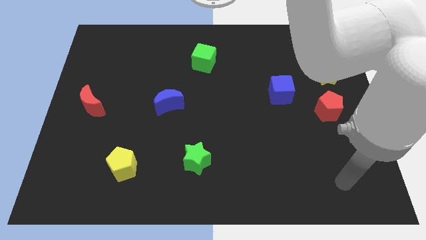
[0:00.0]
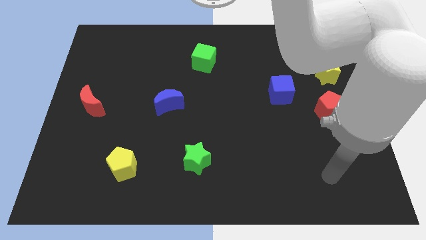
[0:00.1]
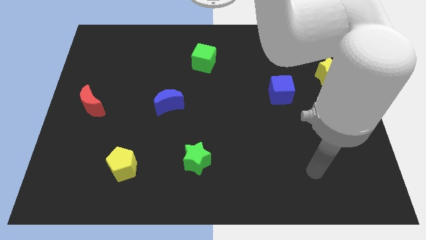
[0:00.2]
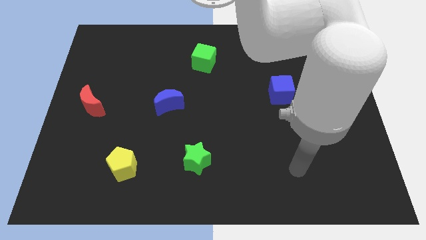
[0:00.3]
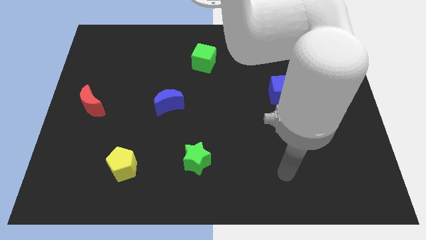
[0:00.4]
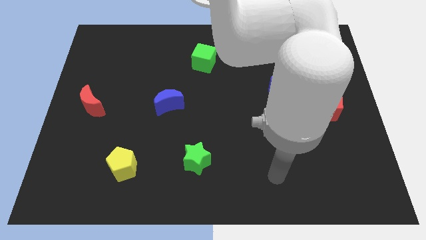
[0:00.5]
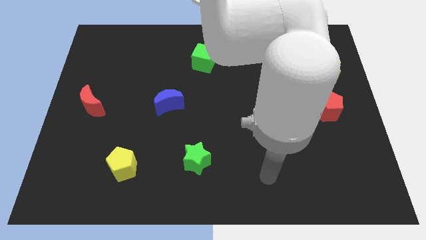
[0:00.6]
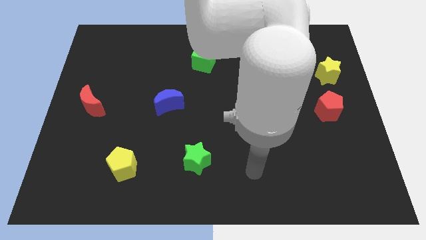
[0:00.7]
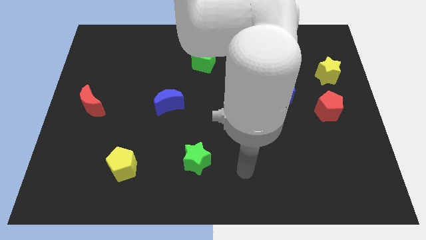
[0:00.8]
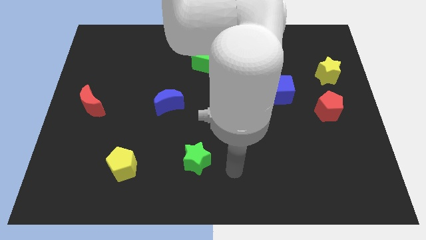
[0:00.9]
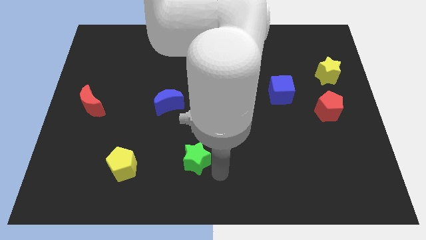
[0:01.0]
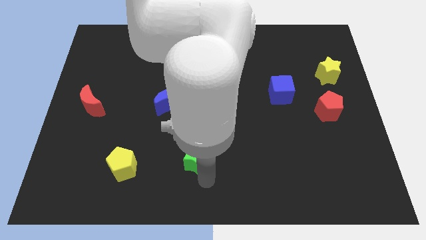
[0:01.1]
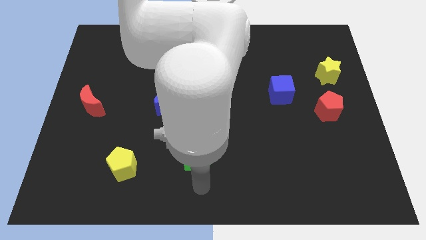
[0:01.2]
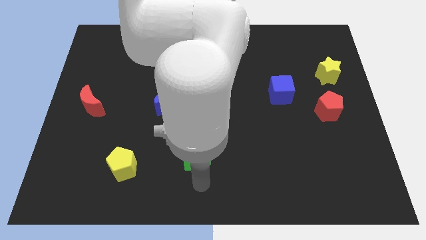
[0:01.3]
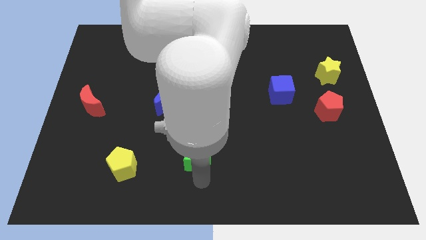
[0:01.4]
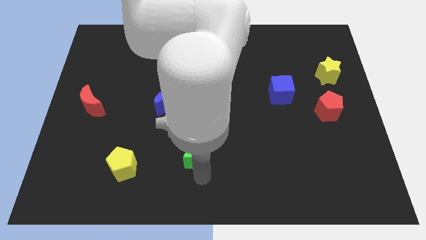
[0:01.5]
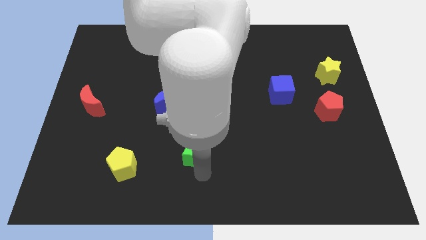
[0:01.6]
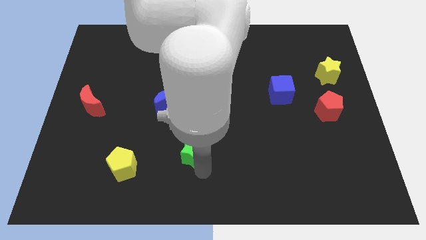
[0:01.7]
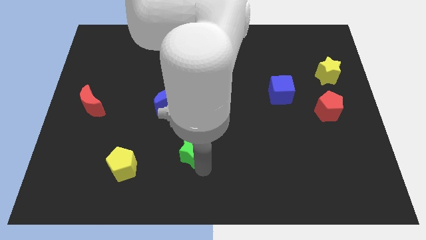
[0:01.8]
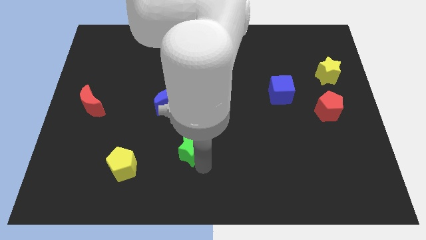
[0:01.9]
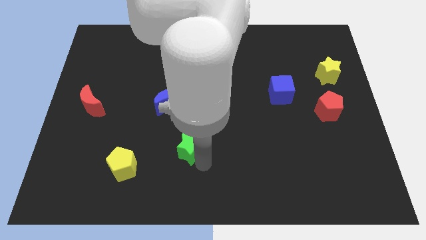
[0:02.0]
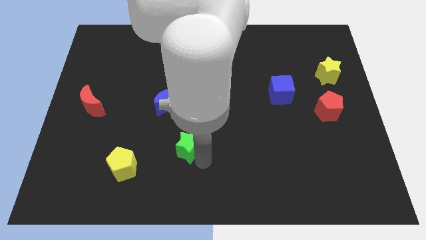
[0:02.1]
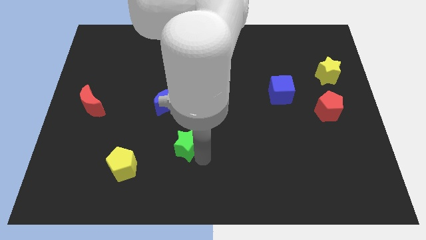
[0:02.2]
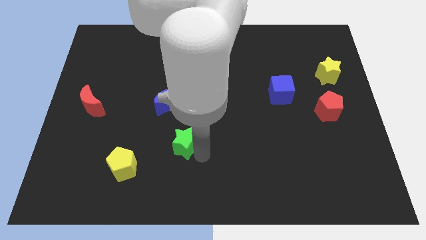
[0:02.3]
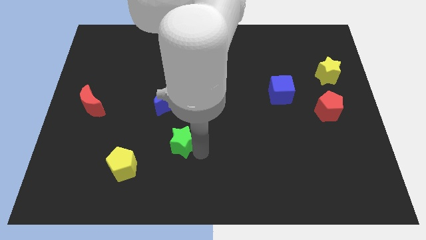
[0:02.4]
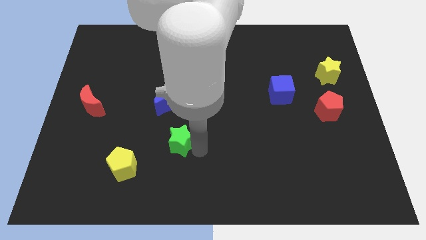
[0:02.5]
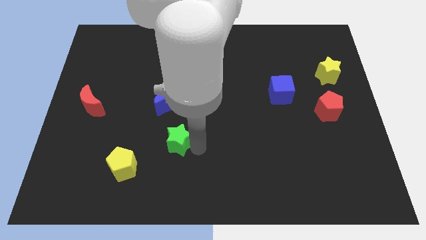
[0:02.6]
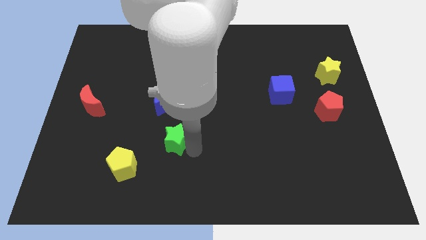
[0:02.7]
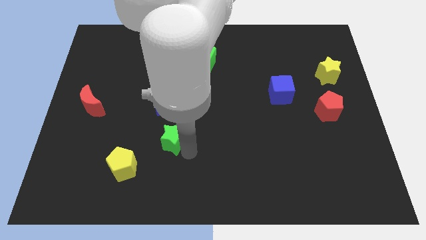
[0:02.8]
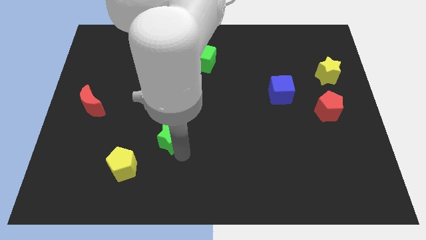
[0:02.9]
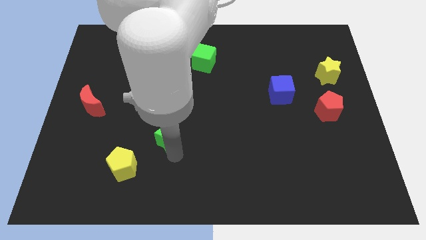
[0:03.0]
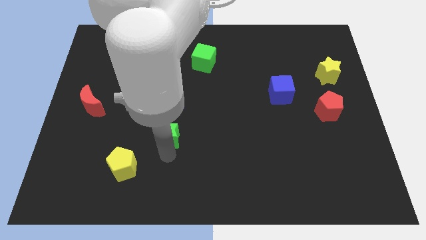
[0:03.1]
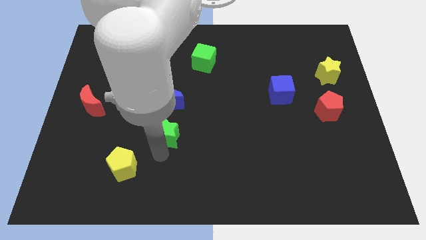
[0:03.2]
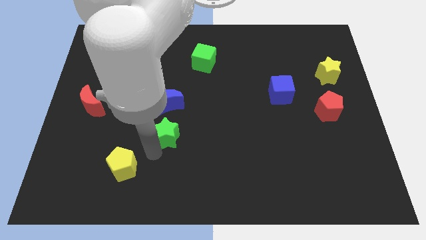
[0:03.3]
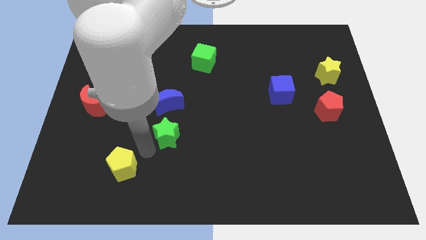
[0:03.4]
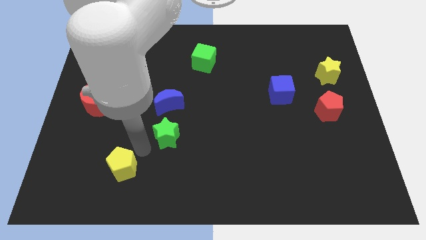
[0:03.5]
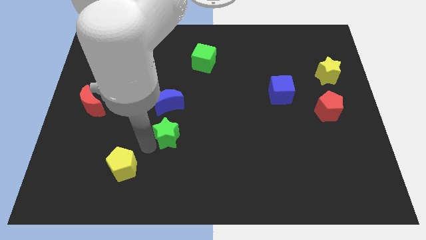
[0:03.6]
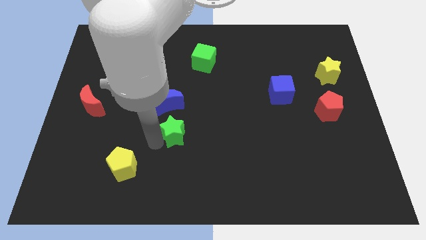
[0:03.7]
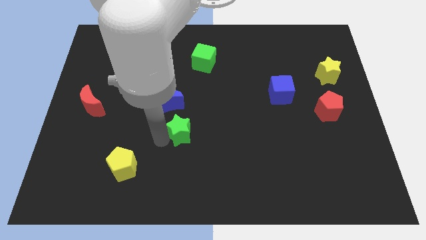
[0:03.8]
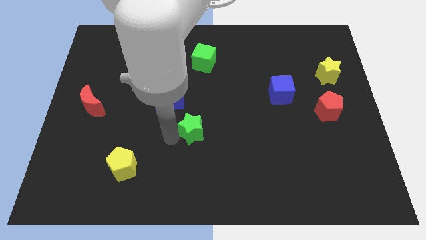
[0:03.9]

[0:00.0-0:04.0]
push the green star upwards somewhat

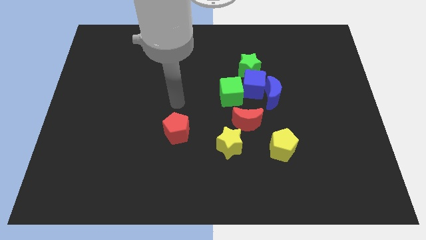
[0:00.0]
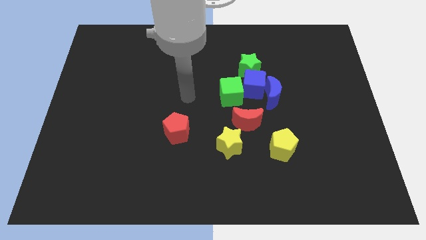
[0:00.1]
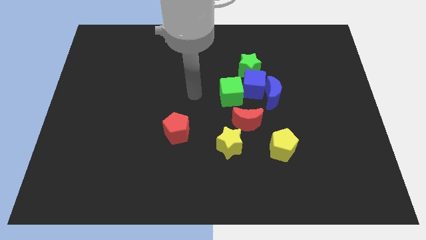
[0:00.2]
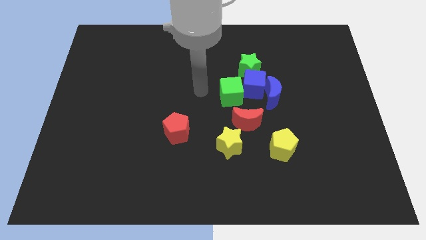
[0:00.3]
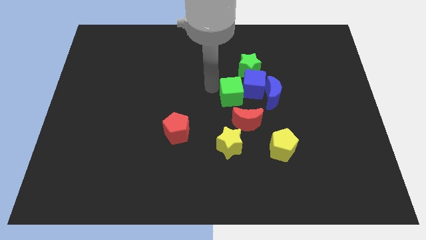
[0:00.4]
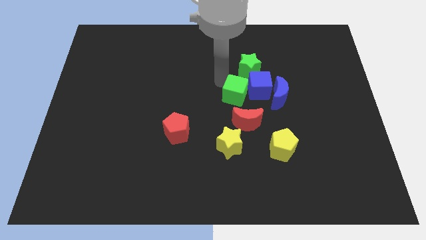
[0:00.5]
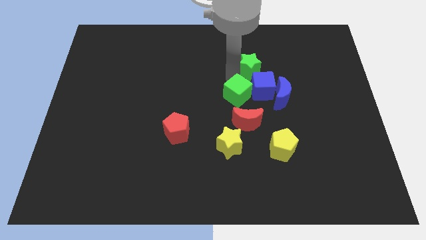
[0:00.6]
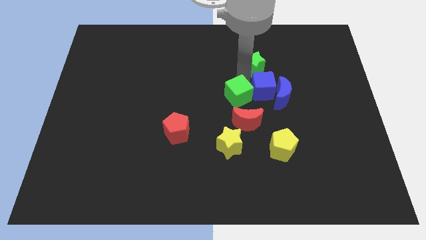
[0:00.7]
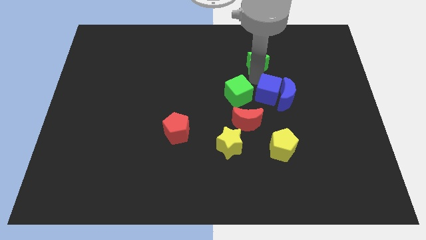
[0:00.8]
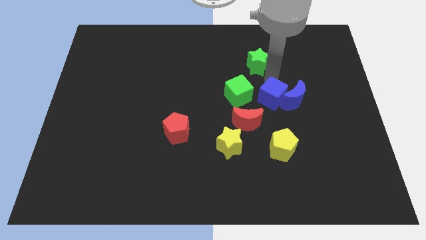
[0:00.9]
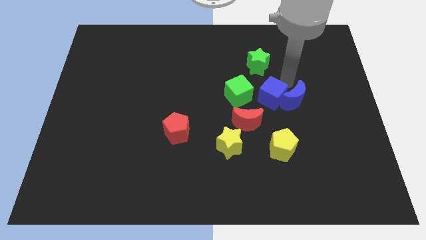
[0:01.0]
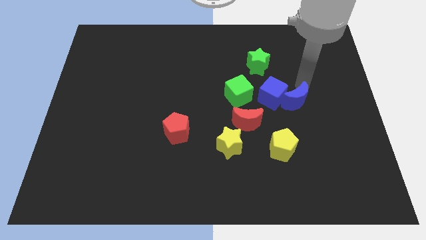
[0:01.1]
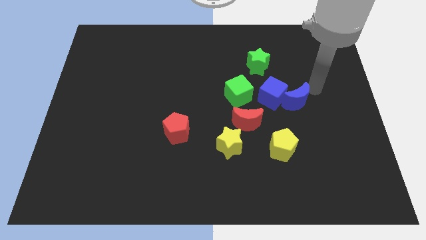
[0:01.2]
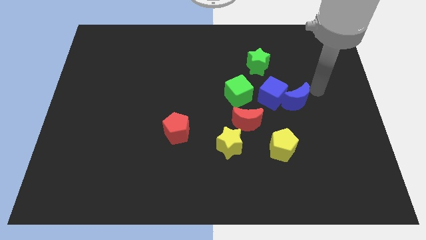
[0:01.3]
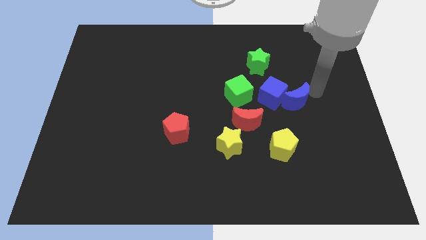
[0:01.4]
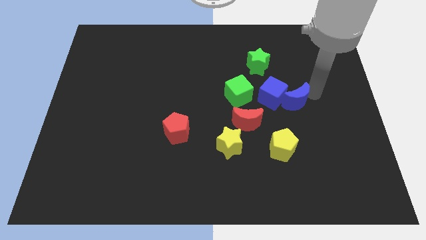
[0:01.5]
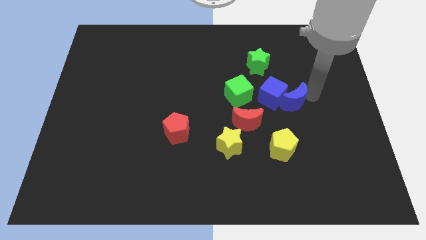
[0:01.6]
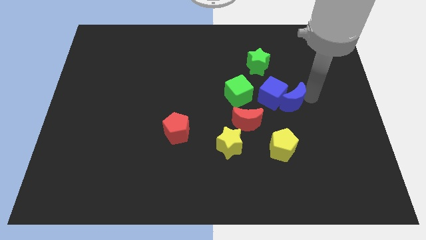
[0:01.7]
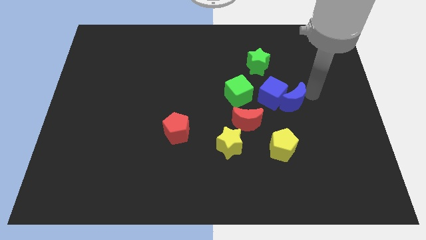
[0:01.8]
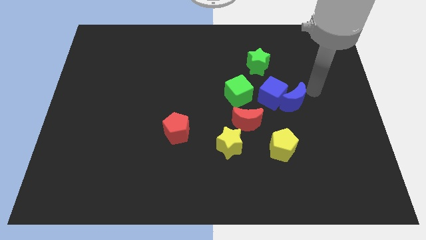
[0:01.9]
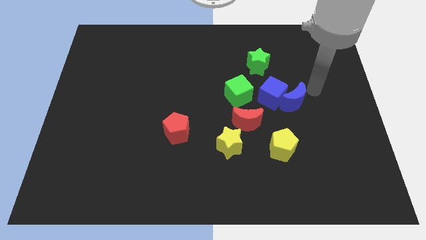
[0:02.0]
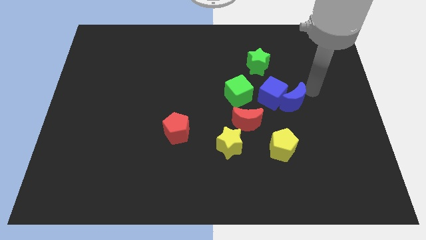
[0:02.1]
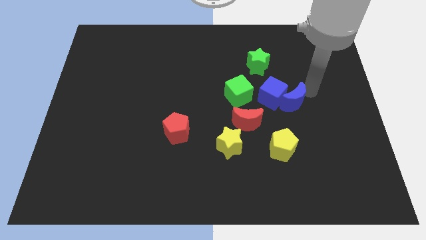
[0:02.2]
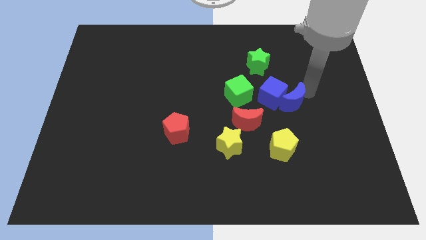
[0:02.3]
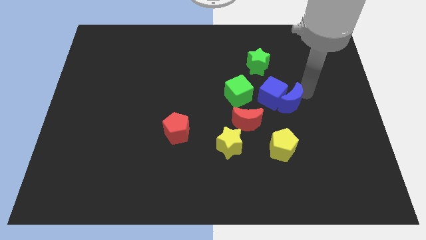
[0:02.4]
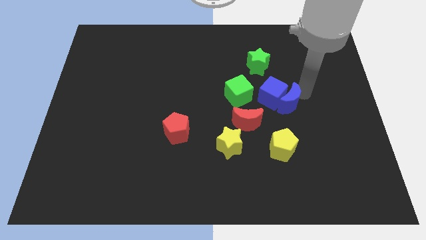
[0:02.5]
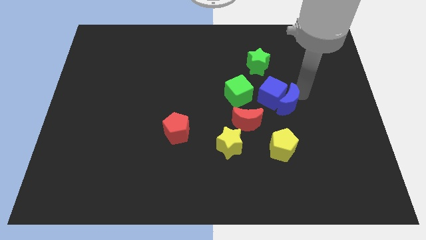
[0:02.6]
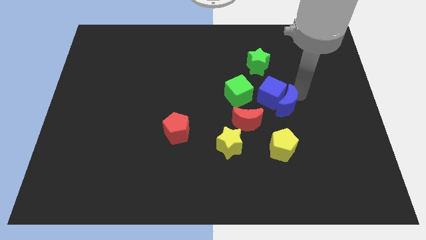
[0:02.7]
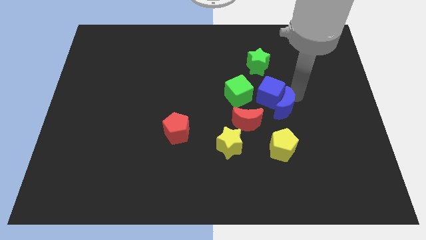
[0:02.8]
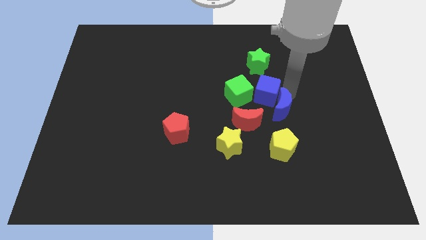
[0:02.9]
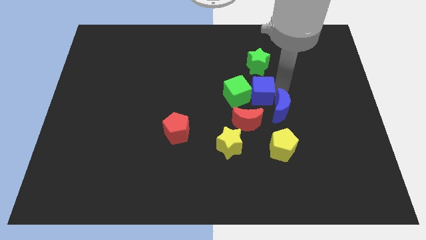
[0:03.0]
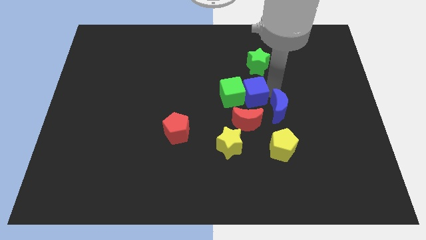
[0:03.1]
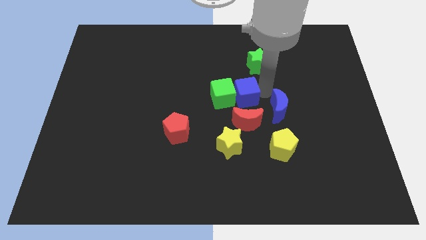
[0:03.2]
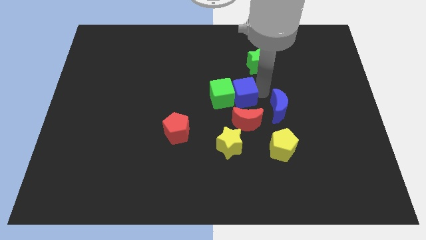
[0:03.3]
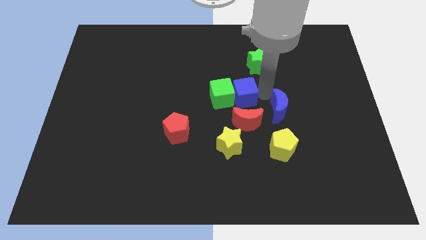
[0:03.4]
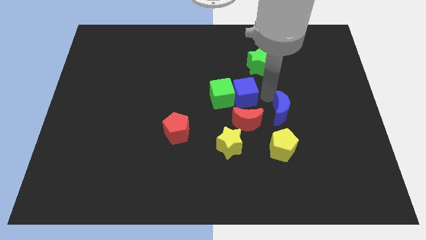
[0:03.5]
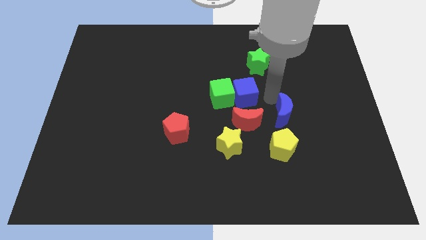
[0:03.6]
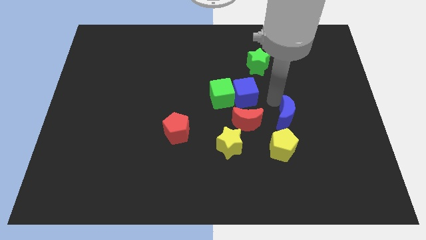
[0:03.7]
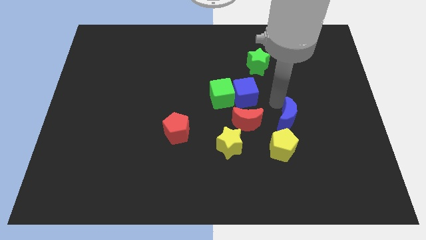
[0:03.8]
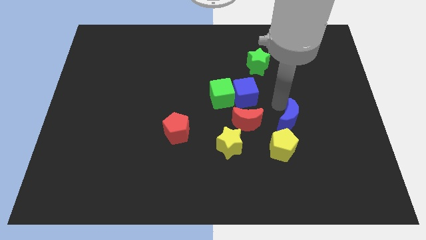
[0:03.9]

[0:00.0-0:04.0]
slightly push the blue moon downwards

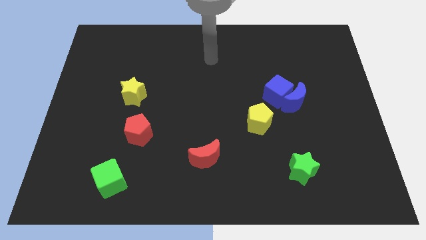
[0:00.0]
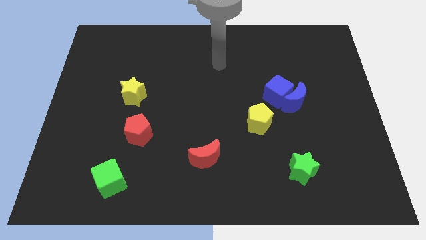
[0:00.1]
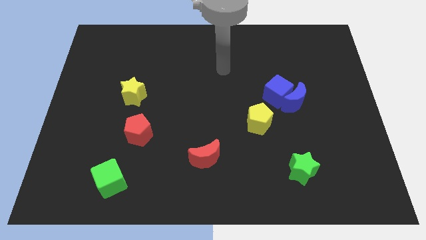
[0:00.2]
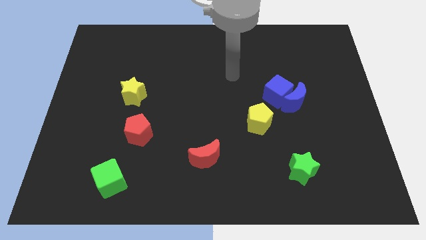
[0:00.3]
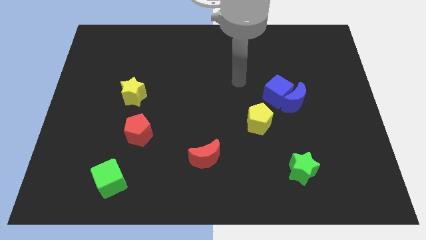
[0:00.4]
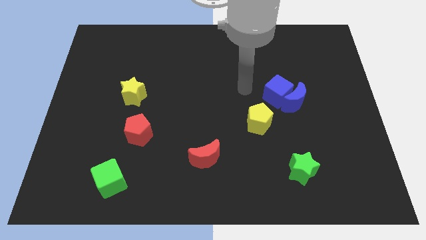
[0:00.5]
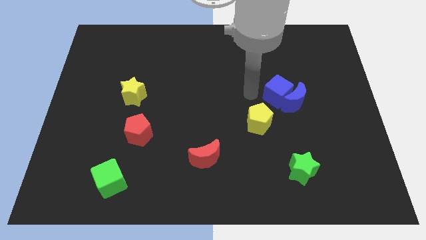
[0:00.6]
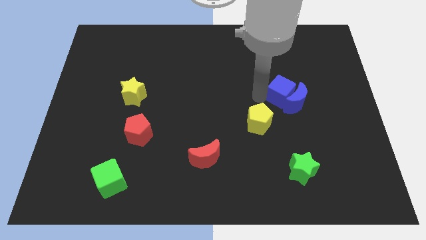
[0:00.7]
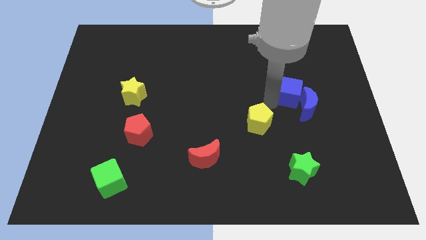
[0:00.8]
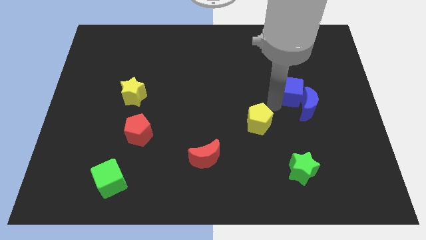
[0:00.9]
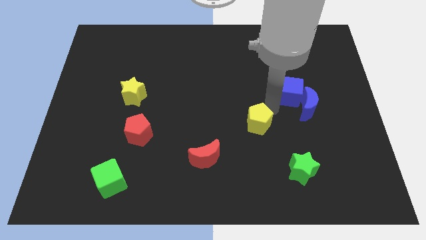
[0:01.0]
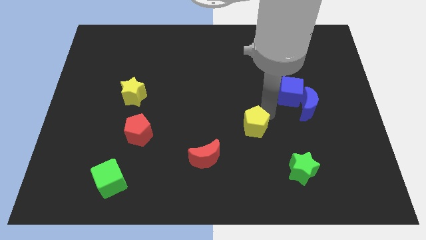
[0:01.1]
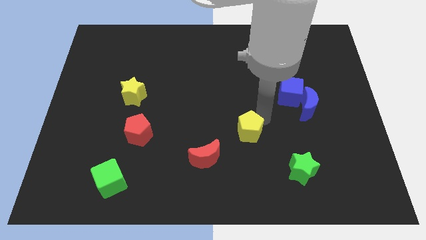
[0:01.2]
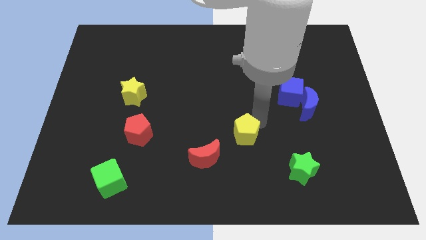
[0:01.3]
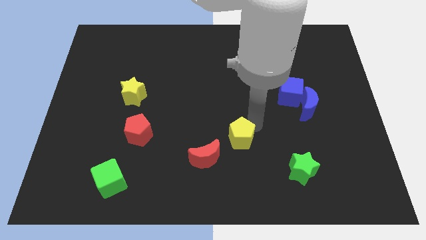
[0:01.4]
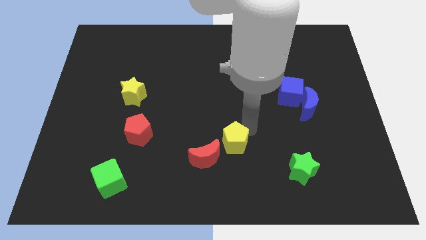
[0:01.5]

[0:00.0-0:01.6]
slightly push the yellow pentagon downwards and to the left
